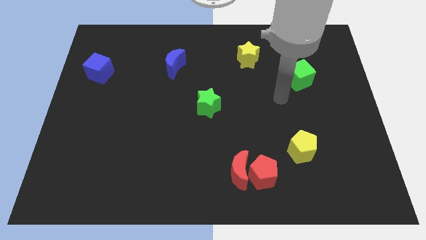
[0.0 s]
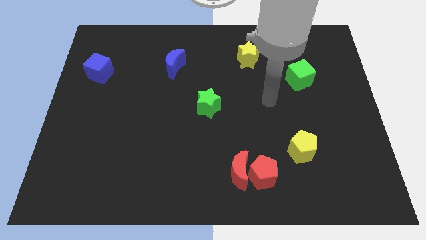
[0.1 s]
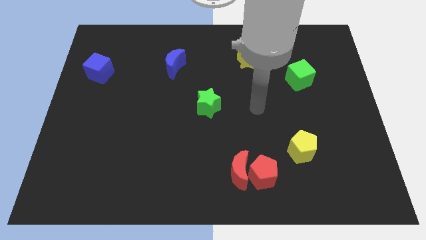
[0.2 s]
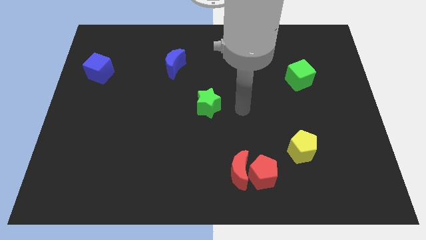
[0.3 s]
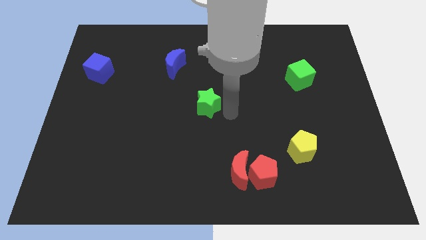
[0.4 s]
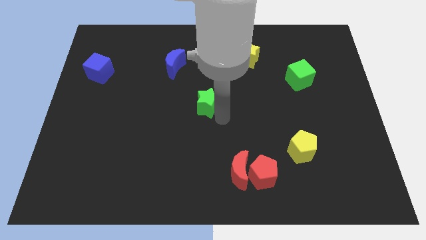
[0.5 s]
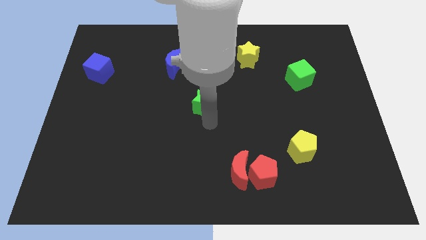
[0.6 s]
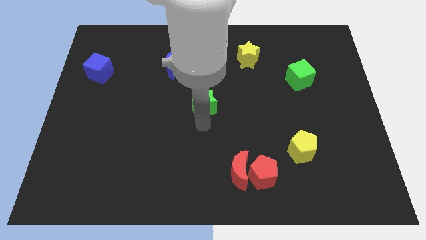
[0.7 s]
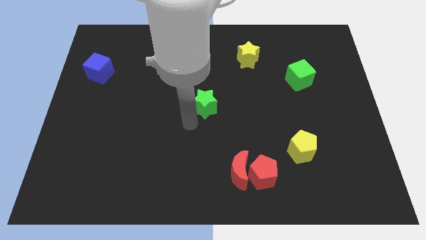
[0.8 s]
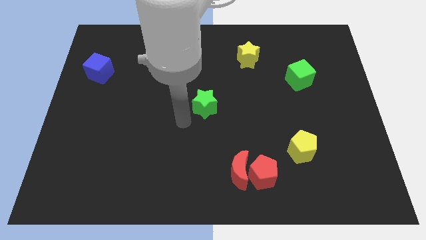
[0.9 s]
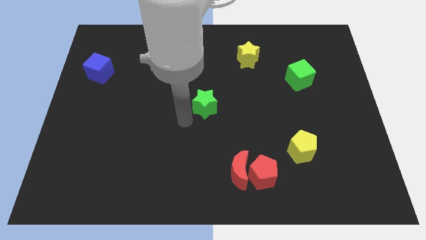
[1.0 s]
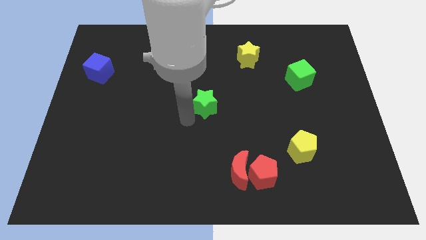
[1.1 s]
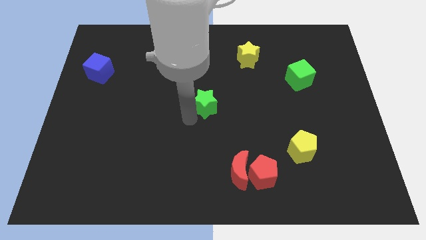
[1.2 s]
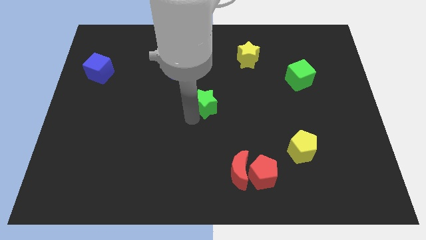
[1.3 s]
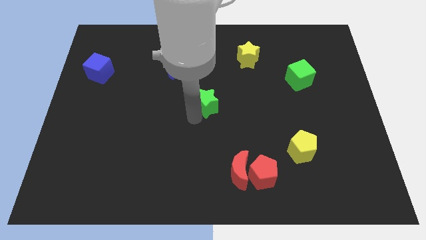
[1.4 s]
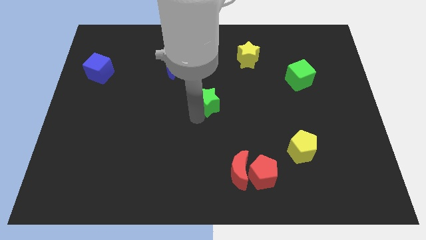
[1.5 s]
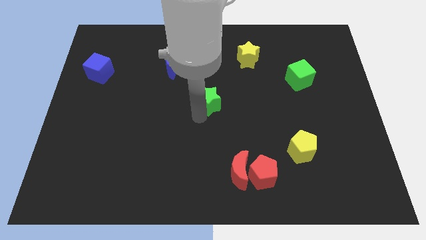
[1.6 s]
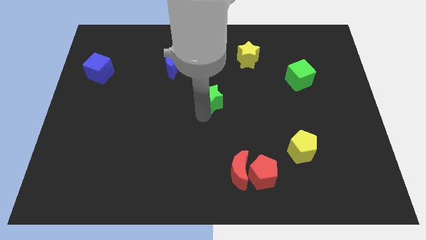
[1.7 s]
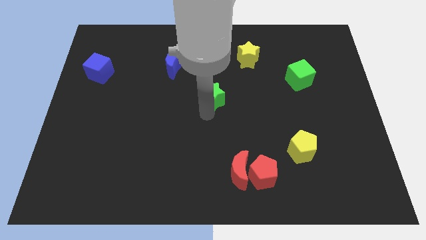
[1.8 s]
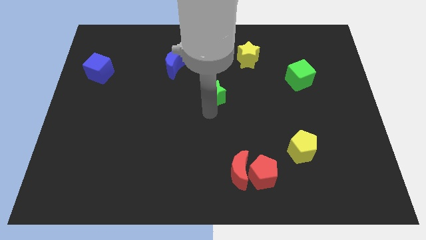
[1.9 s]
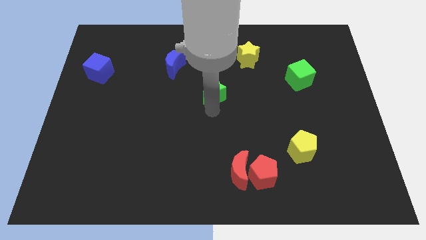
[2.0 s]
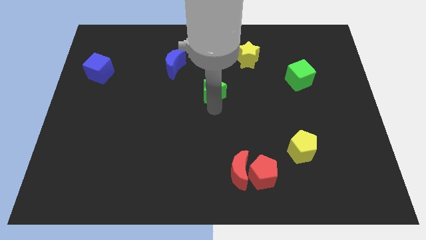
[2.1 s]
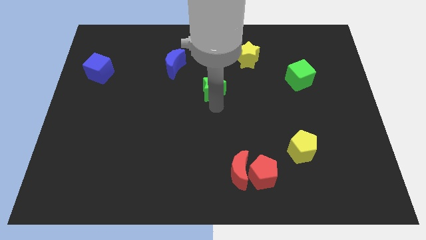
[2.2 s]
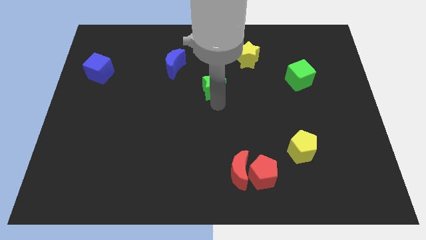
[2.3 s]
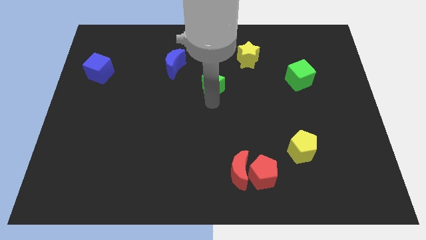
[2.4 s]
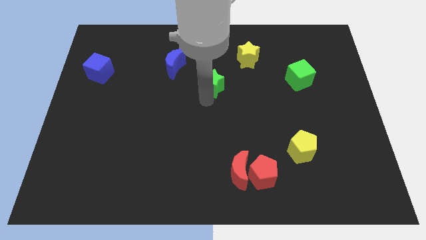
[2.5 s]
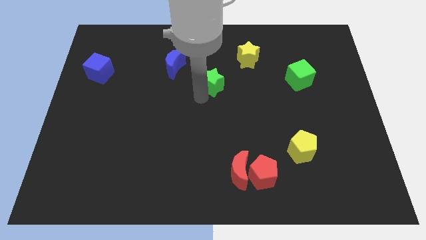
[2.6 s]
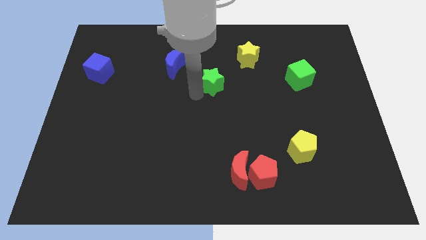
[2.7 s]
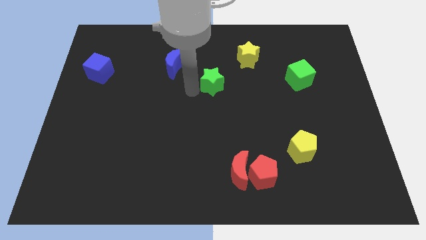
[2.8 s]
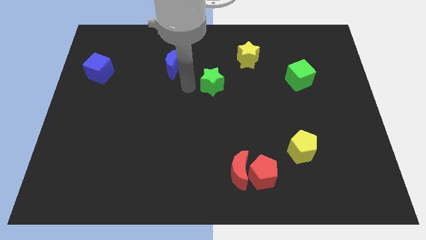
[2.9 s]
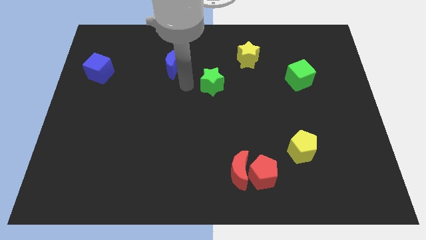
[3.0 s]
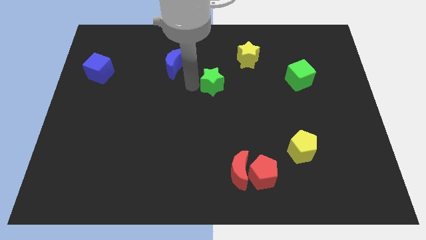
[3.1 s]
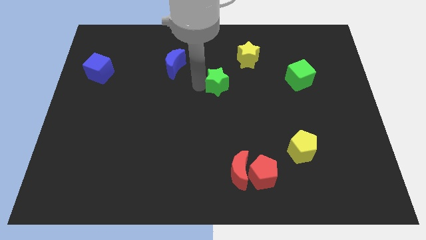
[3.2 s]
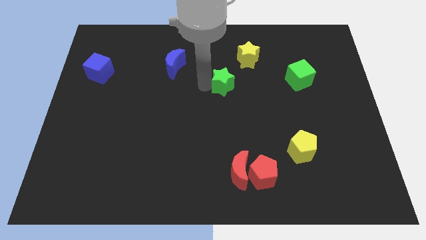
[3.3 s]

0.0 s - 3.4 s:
push the green star a bit upwards and right diagonally

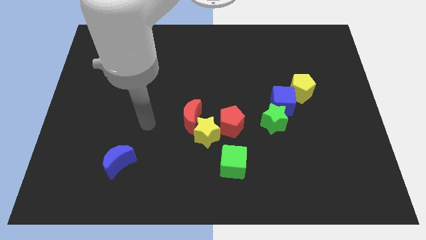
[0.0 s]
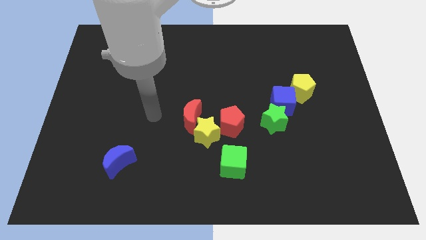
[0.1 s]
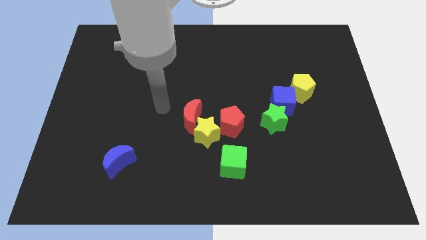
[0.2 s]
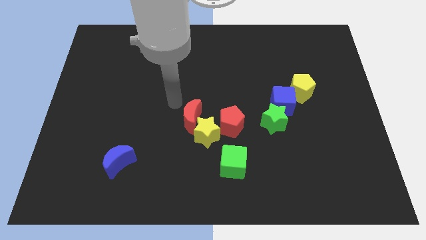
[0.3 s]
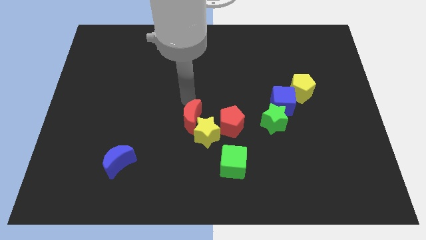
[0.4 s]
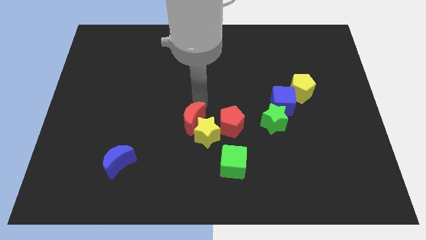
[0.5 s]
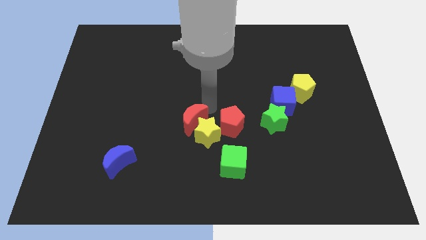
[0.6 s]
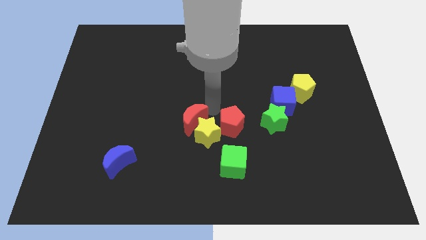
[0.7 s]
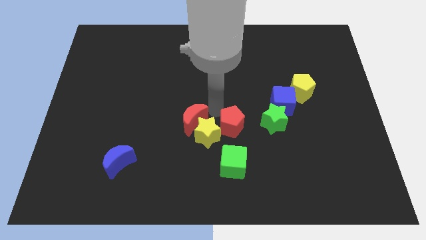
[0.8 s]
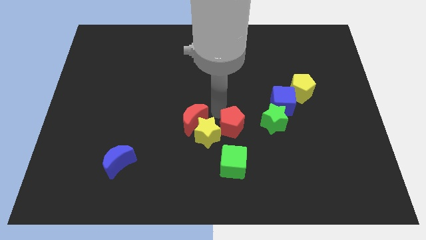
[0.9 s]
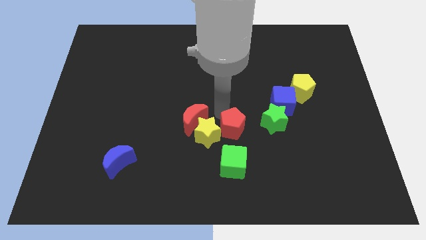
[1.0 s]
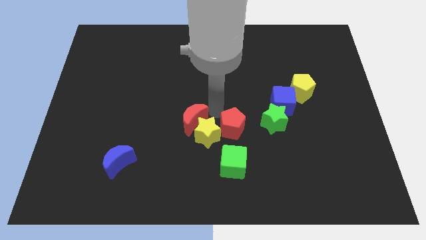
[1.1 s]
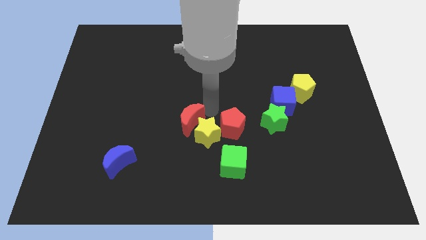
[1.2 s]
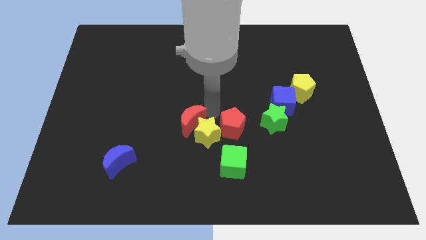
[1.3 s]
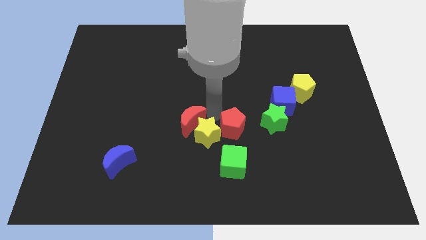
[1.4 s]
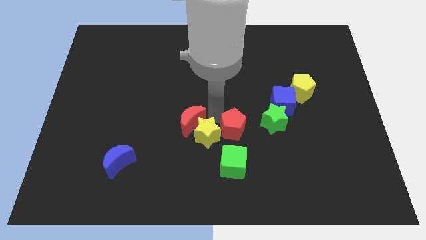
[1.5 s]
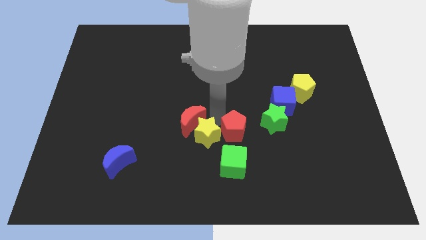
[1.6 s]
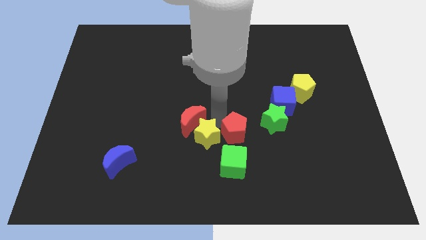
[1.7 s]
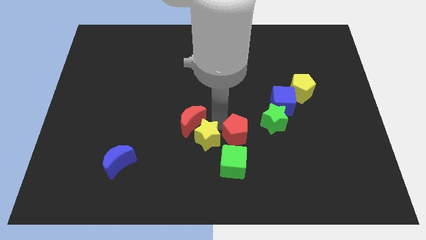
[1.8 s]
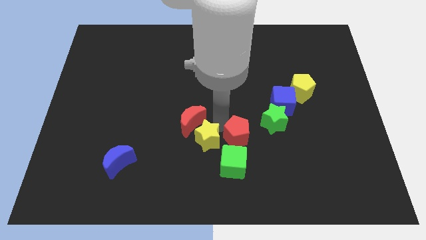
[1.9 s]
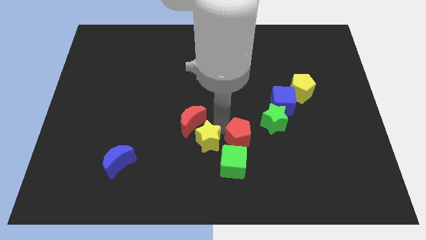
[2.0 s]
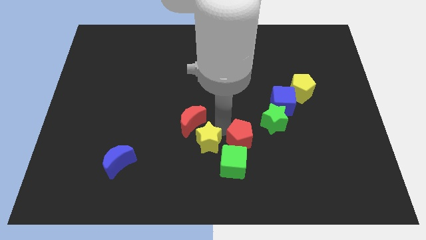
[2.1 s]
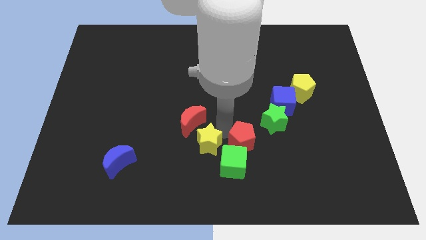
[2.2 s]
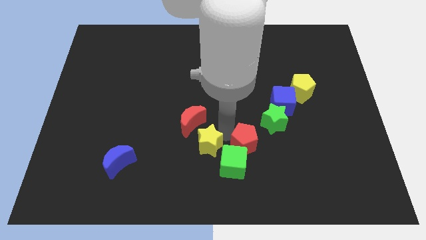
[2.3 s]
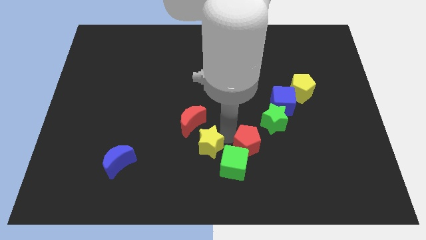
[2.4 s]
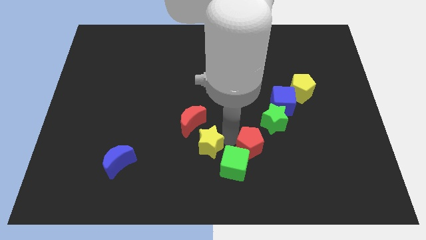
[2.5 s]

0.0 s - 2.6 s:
slightly move the red pentagon diagonally down and to the right

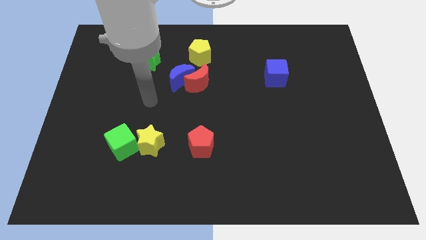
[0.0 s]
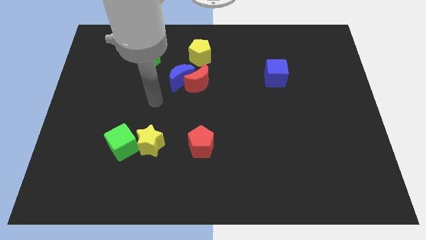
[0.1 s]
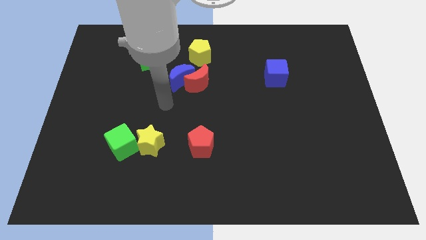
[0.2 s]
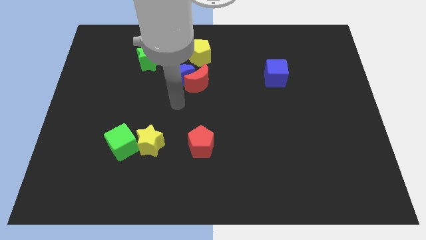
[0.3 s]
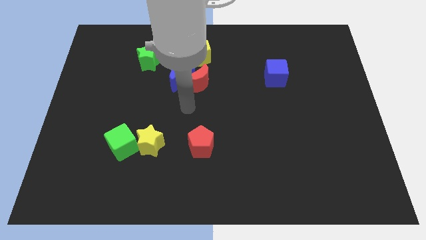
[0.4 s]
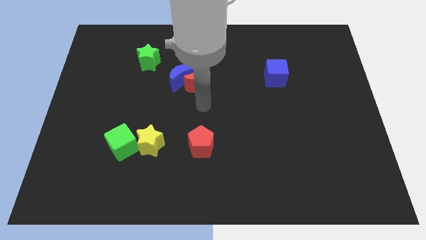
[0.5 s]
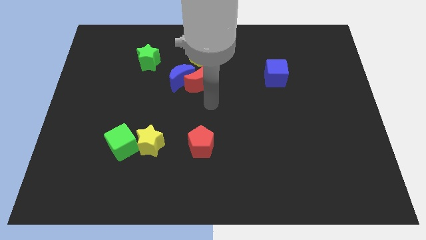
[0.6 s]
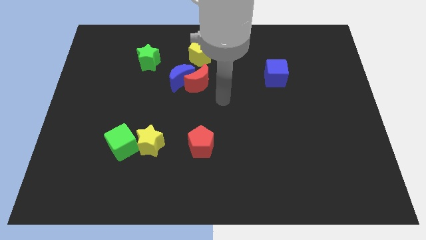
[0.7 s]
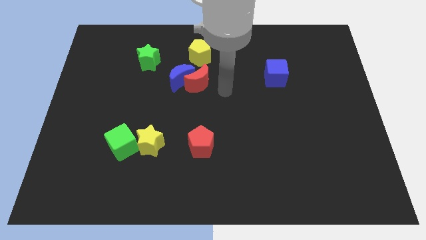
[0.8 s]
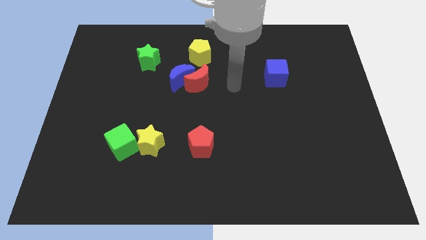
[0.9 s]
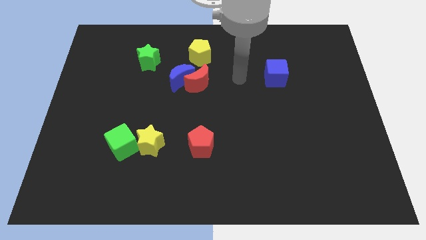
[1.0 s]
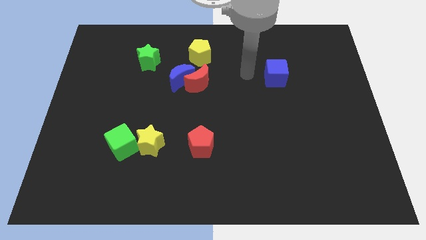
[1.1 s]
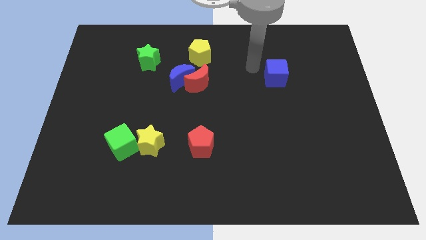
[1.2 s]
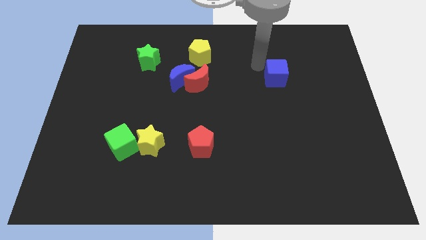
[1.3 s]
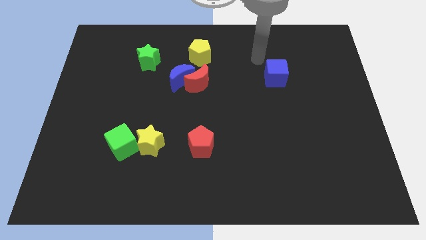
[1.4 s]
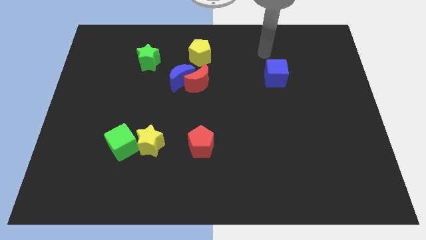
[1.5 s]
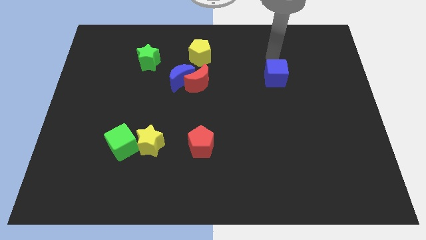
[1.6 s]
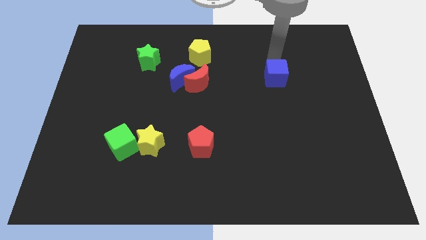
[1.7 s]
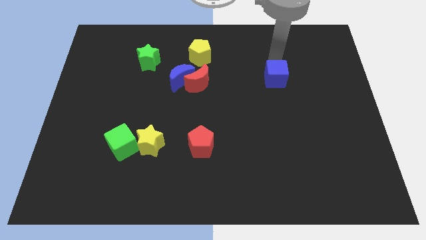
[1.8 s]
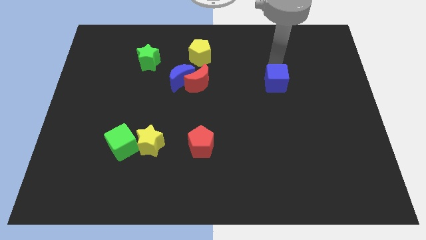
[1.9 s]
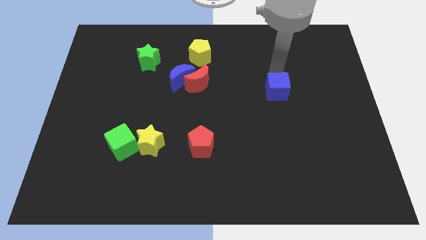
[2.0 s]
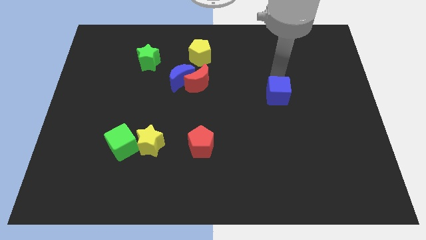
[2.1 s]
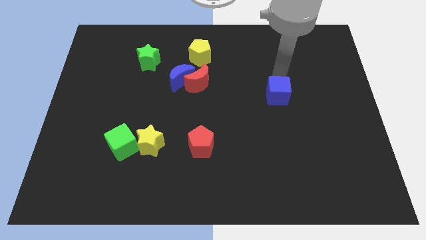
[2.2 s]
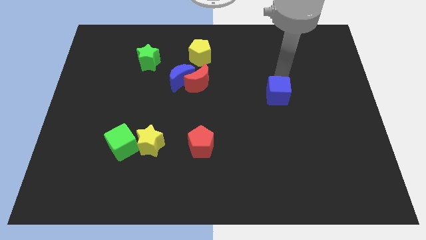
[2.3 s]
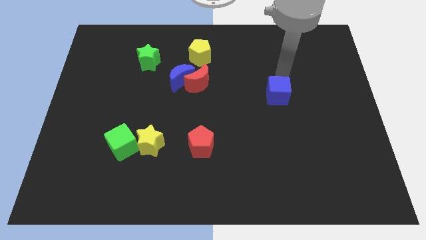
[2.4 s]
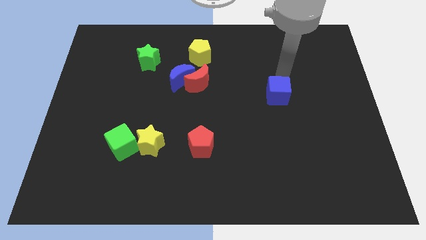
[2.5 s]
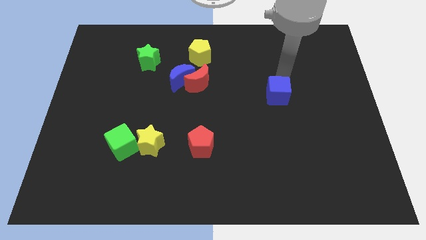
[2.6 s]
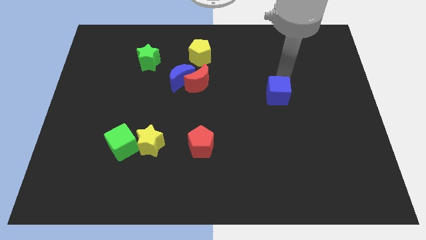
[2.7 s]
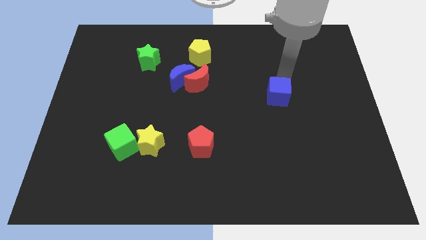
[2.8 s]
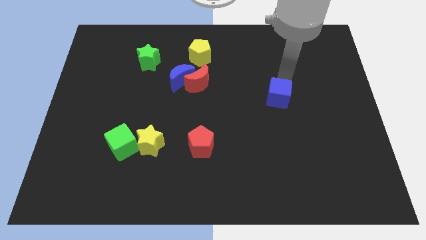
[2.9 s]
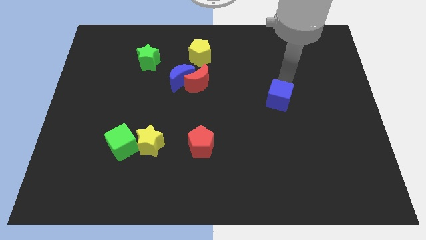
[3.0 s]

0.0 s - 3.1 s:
slightly slide the blue cube down
